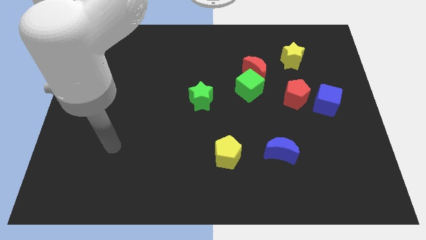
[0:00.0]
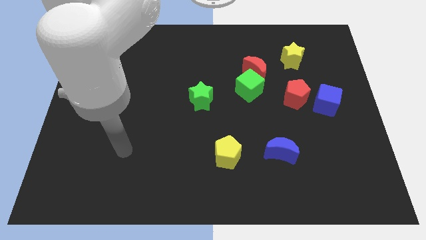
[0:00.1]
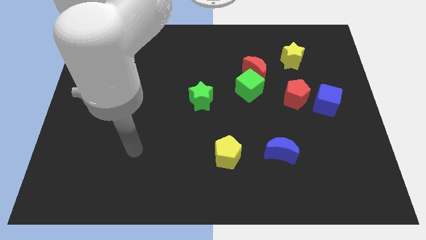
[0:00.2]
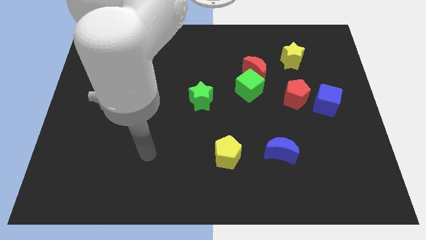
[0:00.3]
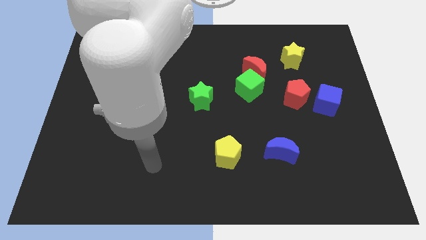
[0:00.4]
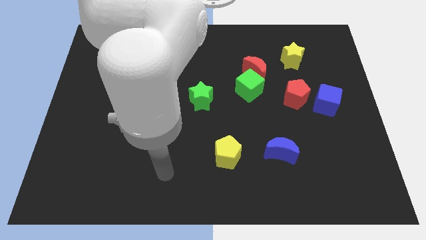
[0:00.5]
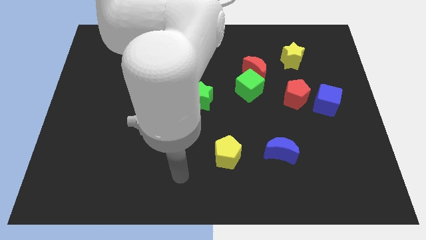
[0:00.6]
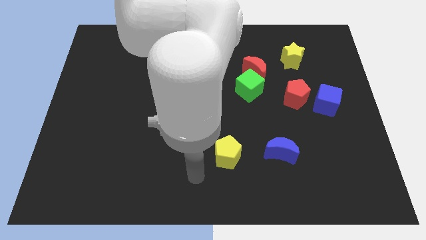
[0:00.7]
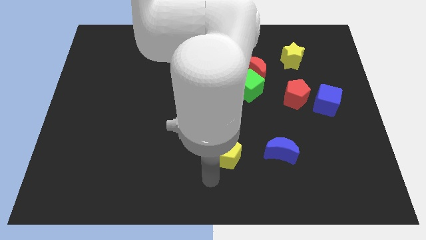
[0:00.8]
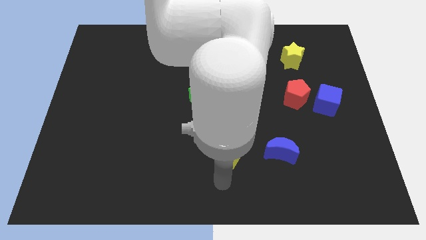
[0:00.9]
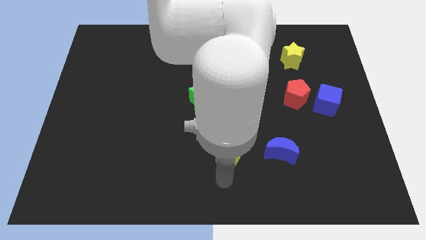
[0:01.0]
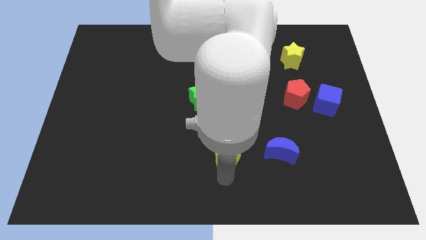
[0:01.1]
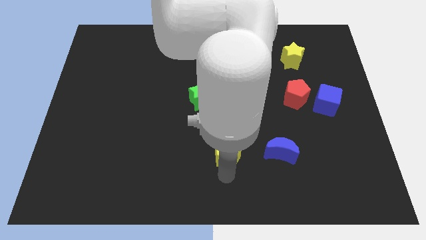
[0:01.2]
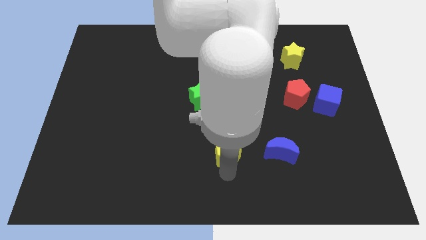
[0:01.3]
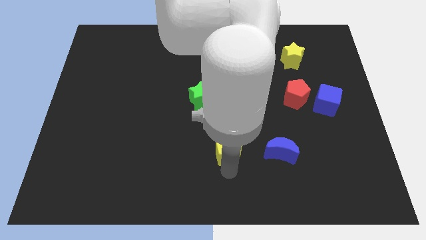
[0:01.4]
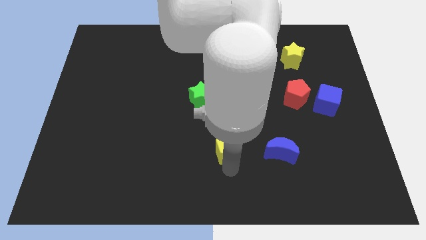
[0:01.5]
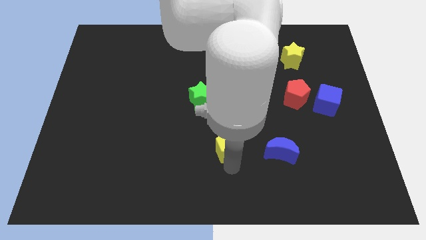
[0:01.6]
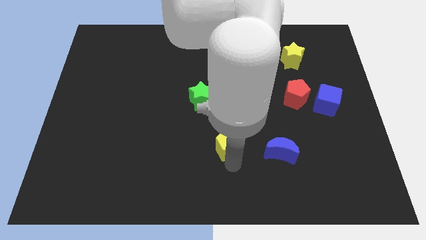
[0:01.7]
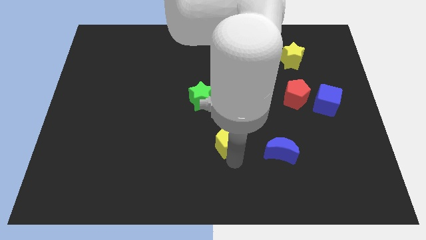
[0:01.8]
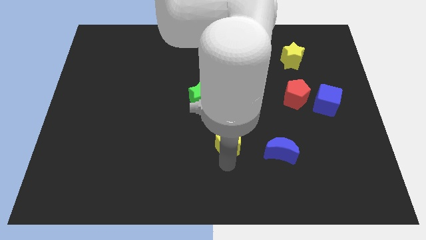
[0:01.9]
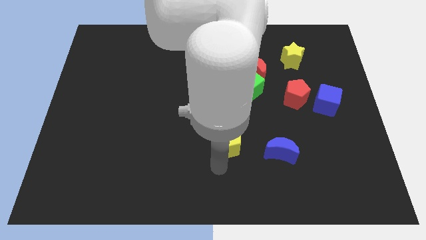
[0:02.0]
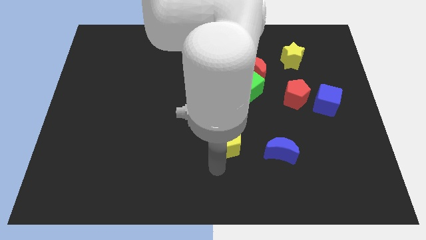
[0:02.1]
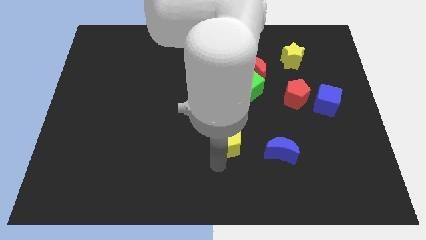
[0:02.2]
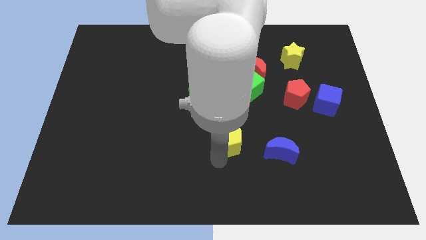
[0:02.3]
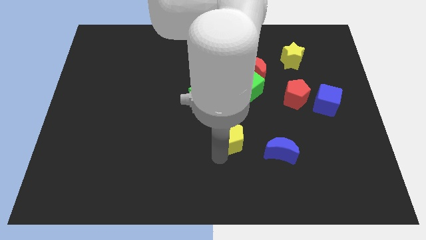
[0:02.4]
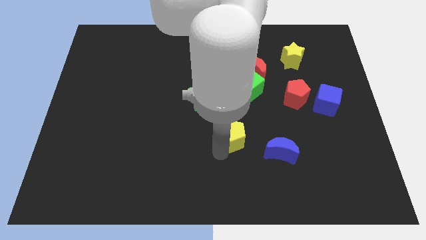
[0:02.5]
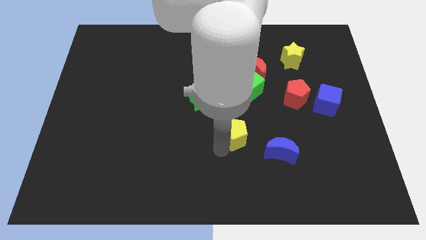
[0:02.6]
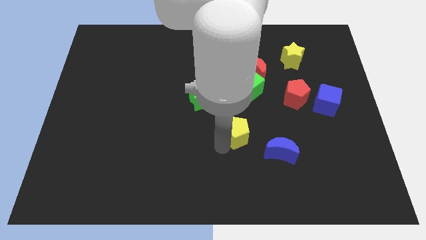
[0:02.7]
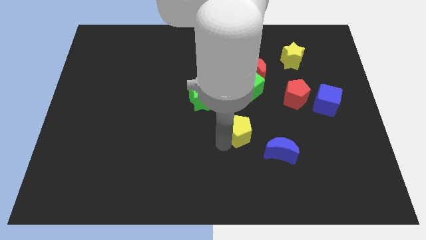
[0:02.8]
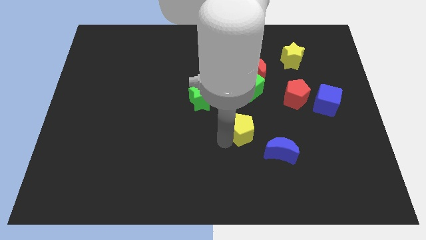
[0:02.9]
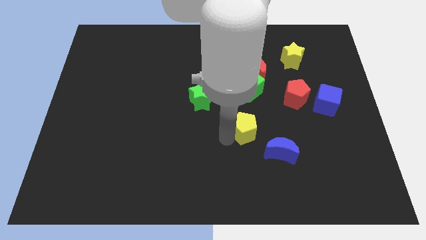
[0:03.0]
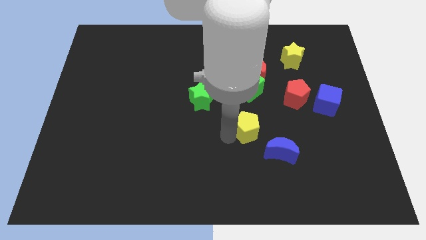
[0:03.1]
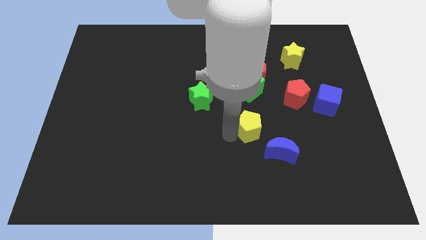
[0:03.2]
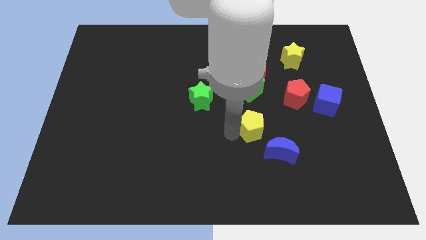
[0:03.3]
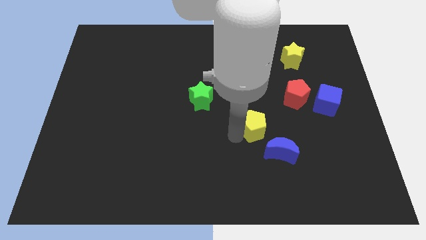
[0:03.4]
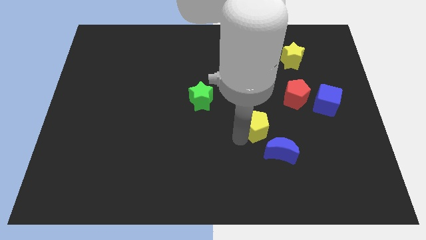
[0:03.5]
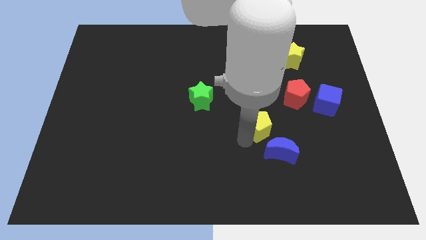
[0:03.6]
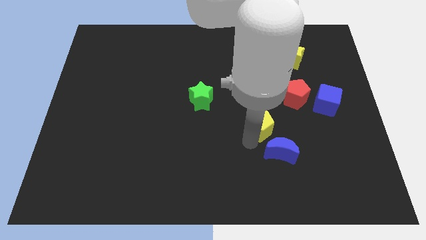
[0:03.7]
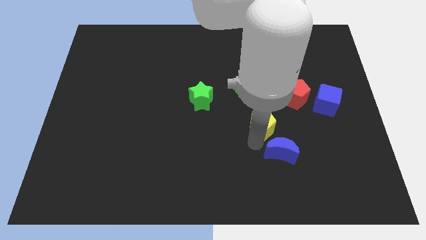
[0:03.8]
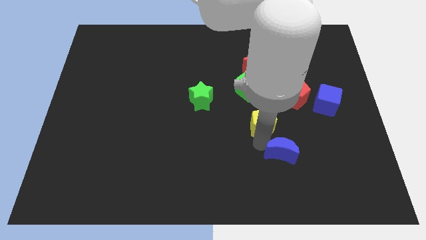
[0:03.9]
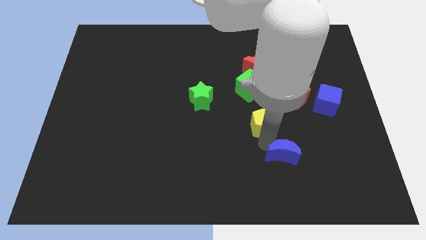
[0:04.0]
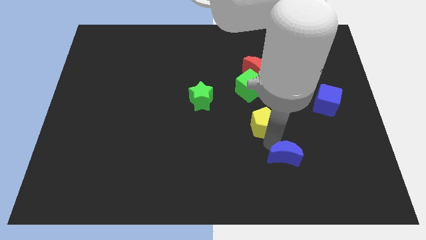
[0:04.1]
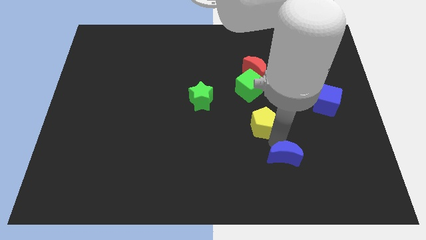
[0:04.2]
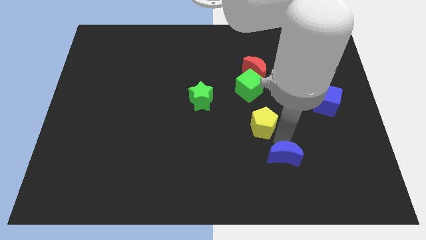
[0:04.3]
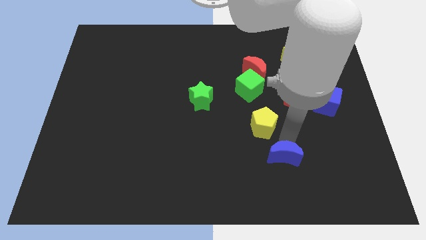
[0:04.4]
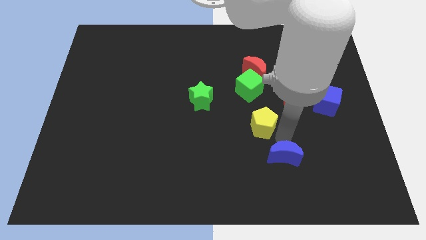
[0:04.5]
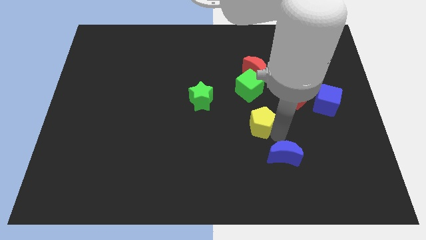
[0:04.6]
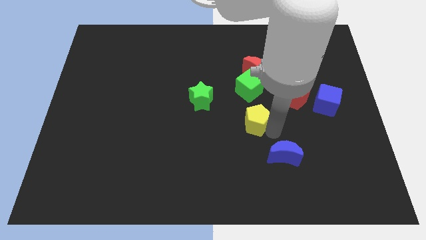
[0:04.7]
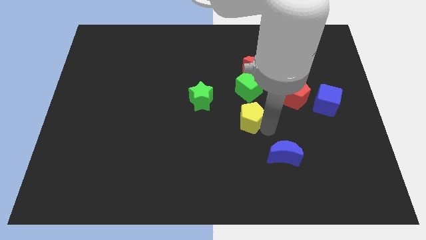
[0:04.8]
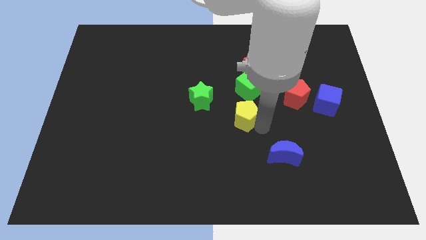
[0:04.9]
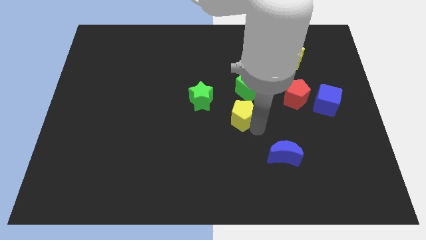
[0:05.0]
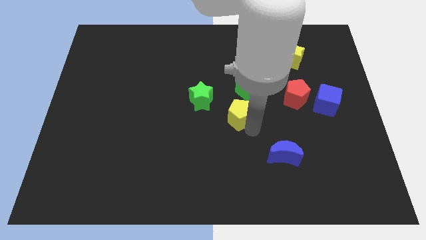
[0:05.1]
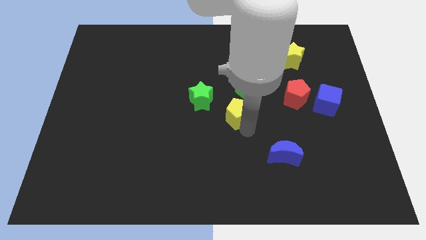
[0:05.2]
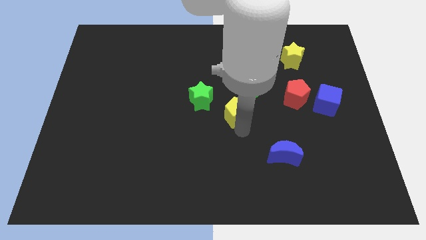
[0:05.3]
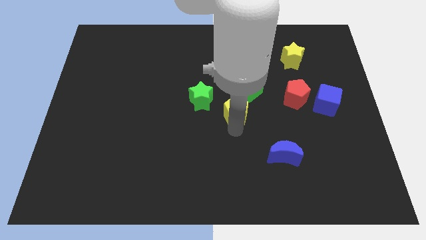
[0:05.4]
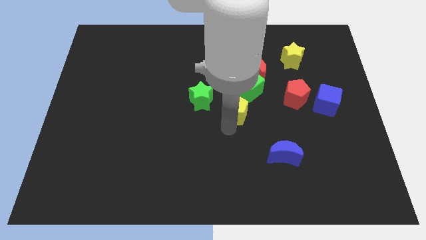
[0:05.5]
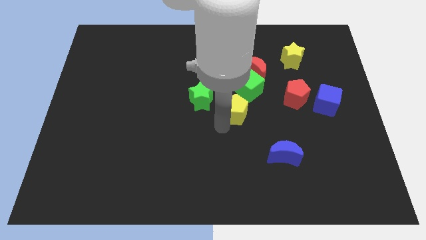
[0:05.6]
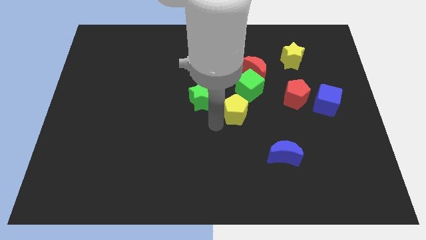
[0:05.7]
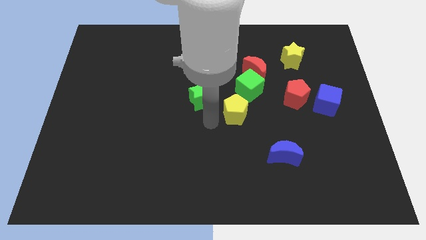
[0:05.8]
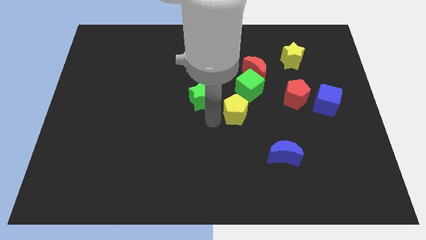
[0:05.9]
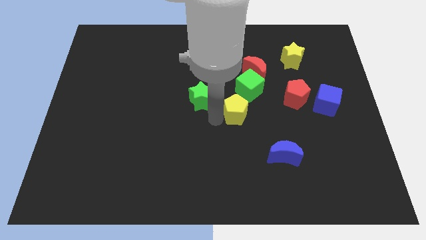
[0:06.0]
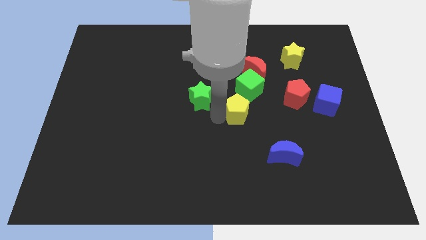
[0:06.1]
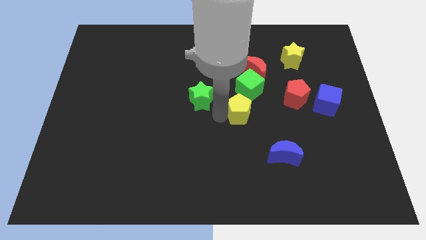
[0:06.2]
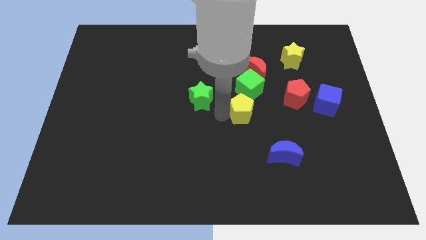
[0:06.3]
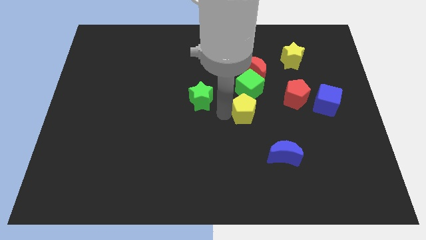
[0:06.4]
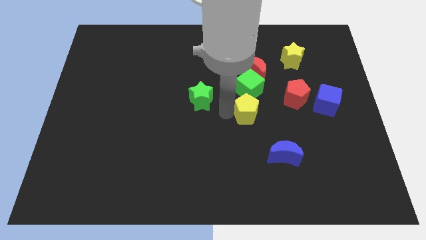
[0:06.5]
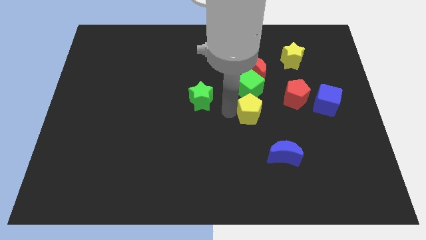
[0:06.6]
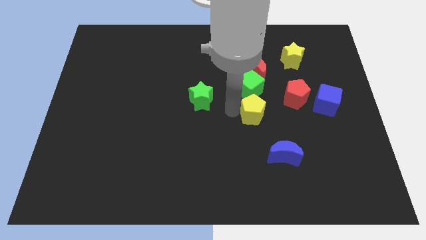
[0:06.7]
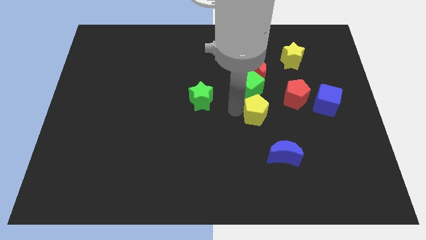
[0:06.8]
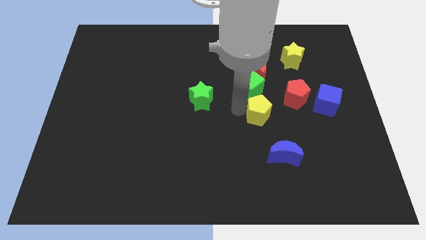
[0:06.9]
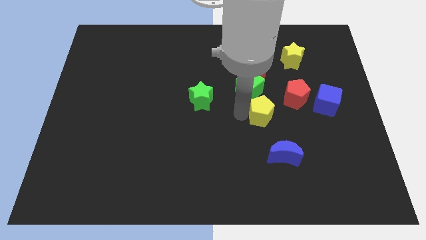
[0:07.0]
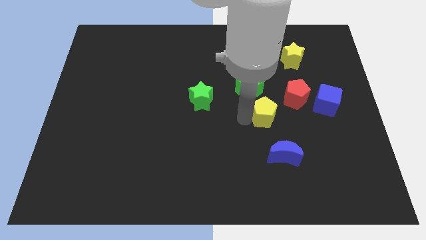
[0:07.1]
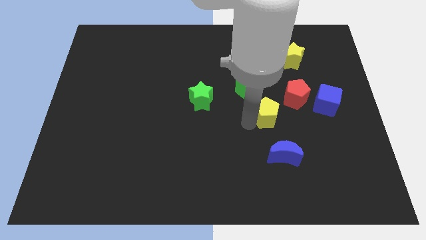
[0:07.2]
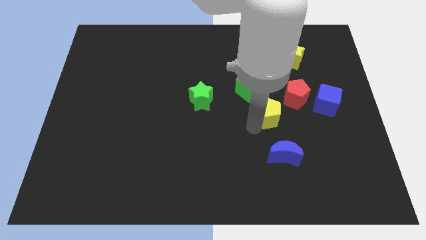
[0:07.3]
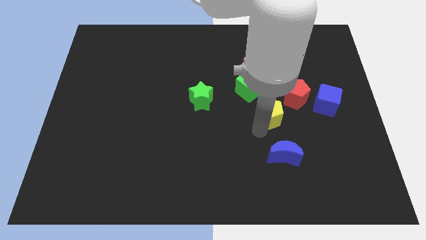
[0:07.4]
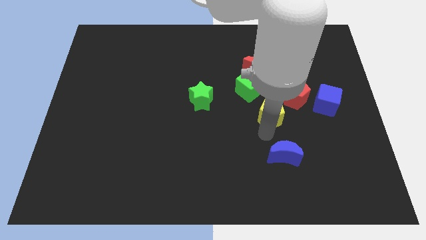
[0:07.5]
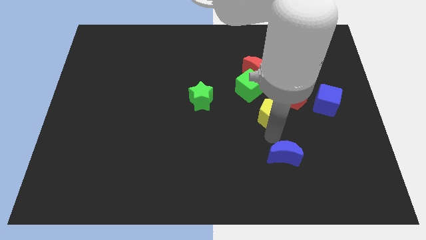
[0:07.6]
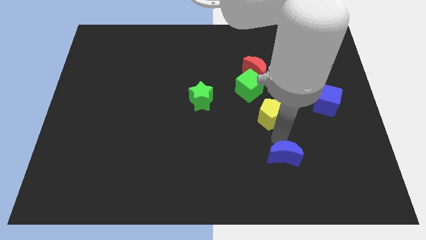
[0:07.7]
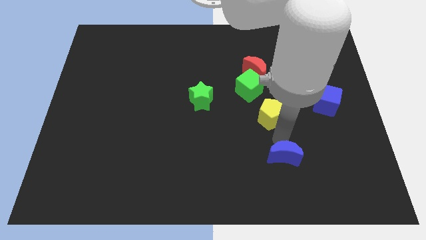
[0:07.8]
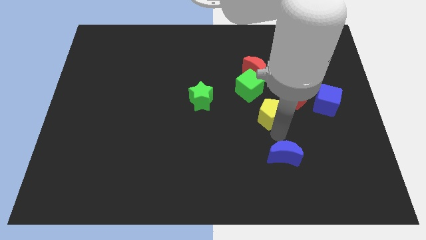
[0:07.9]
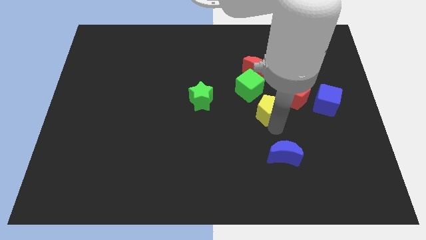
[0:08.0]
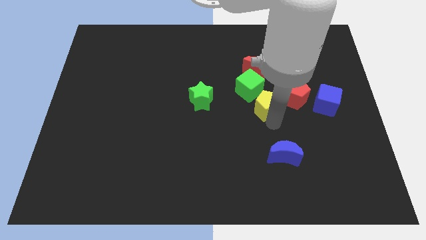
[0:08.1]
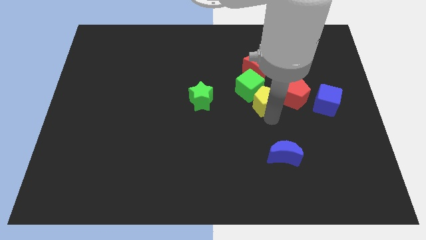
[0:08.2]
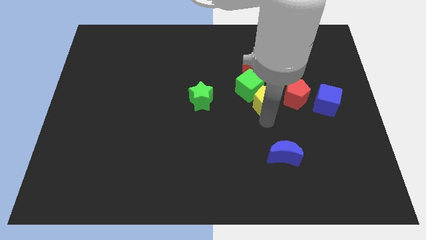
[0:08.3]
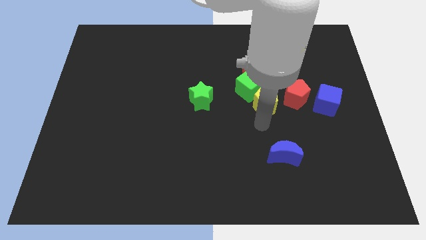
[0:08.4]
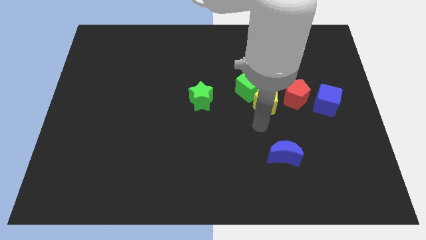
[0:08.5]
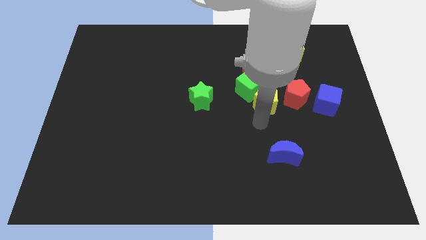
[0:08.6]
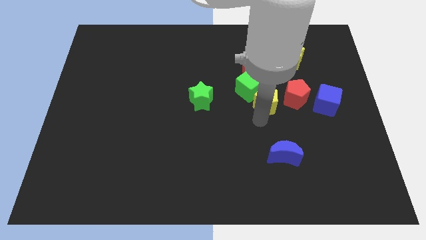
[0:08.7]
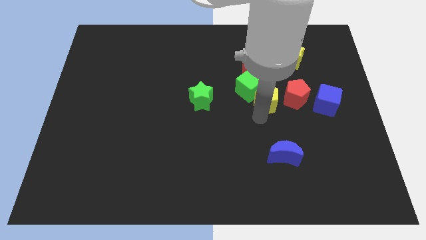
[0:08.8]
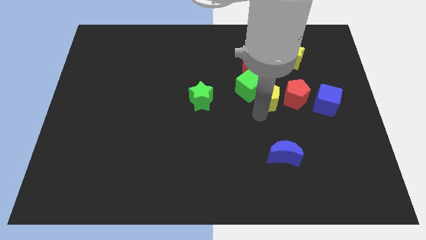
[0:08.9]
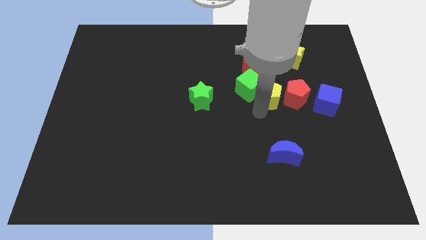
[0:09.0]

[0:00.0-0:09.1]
slide the yellow pentagon diagonally up and to the left of the red pentagon
